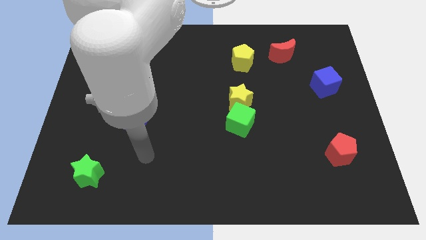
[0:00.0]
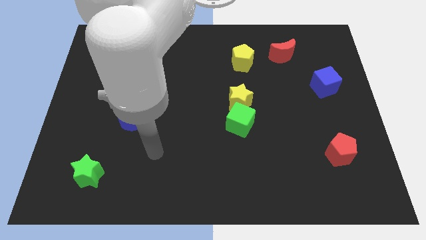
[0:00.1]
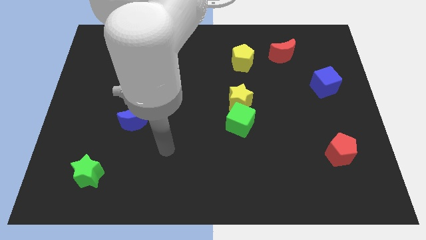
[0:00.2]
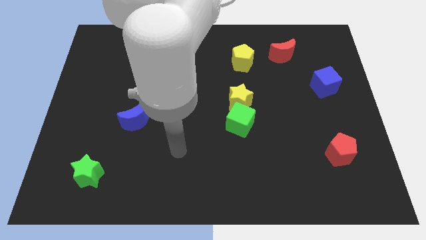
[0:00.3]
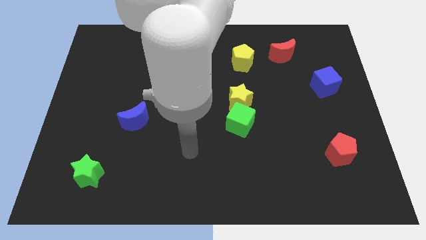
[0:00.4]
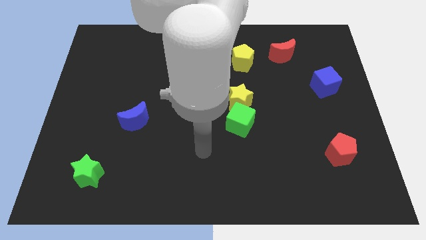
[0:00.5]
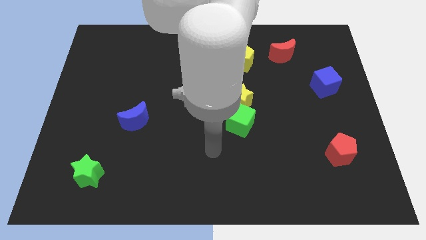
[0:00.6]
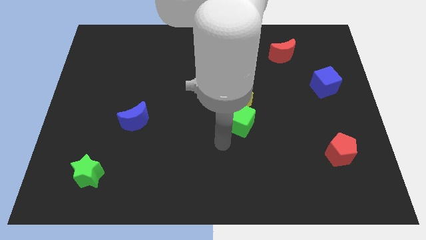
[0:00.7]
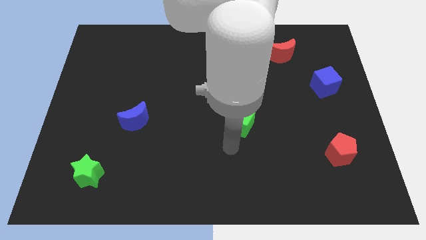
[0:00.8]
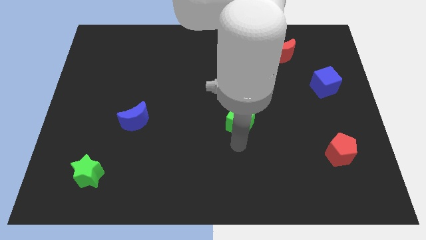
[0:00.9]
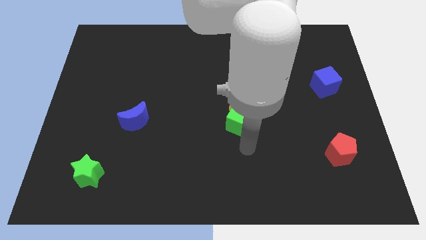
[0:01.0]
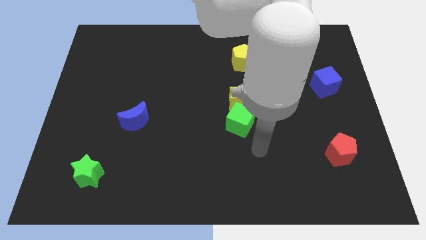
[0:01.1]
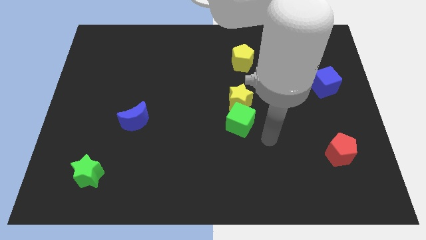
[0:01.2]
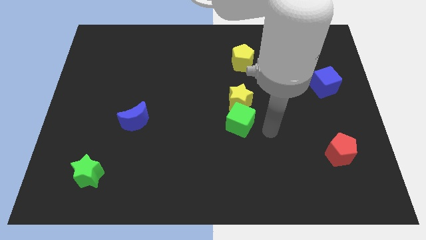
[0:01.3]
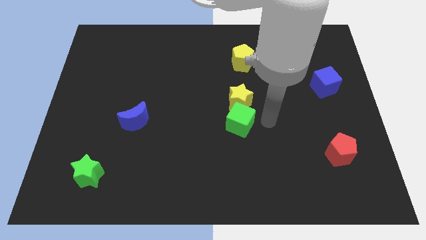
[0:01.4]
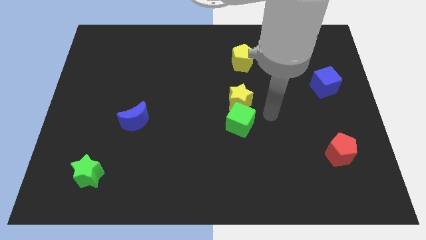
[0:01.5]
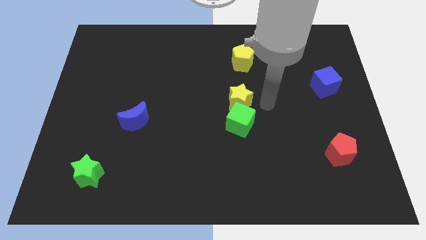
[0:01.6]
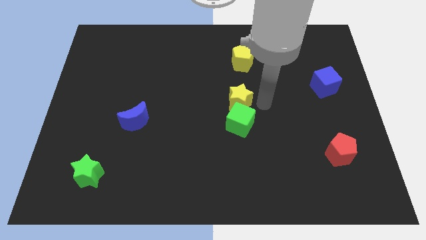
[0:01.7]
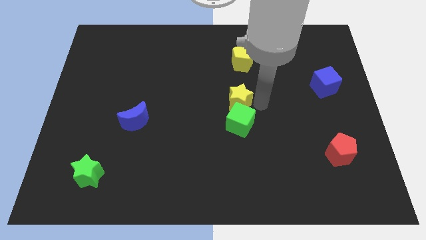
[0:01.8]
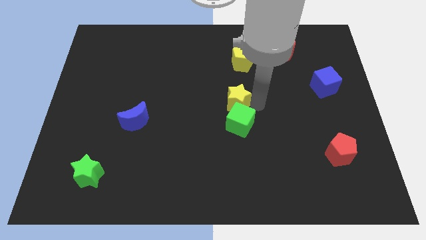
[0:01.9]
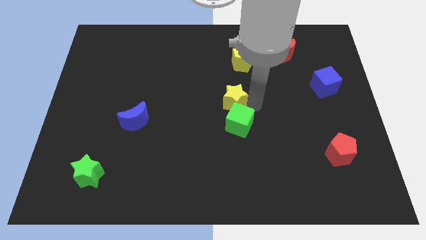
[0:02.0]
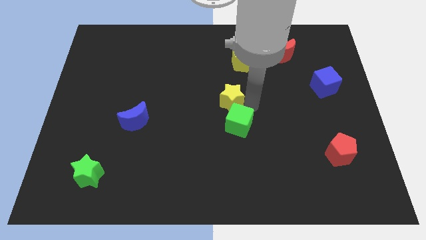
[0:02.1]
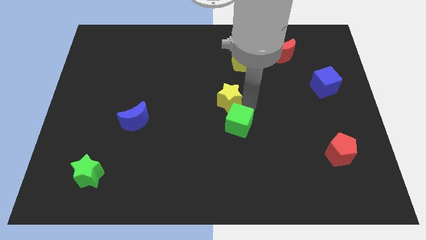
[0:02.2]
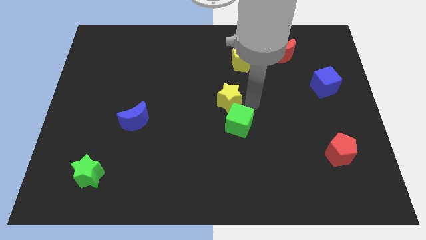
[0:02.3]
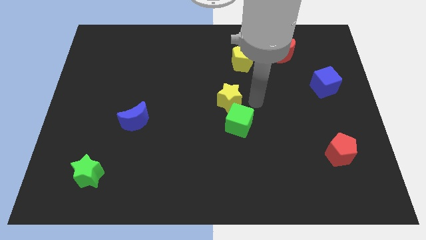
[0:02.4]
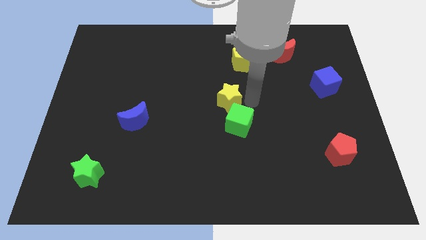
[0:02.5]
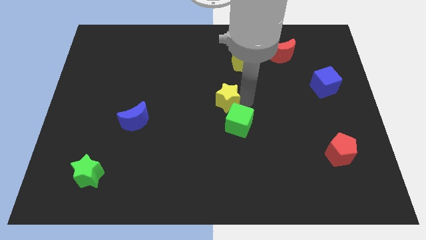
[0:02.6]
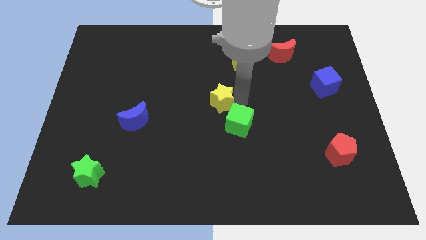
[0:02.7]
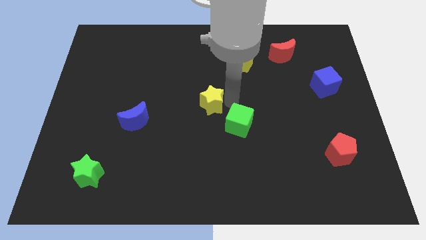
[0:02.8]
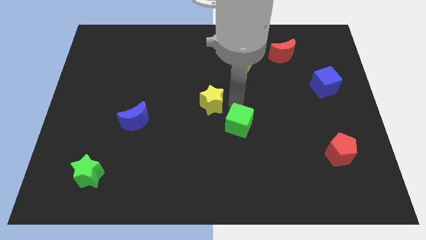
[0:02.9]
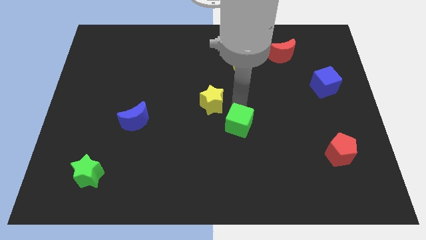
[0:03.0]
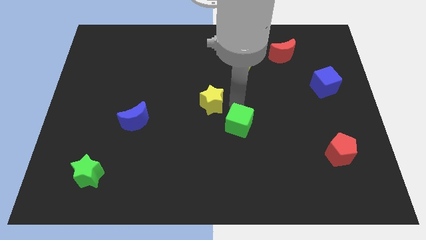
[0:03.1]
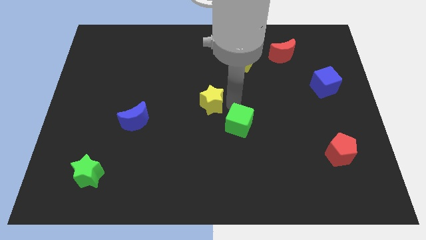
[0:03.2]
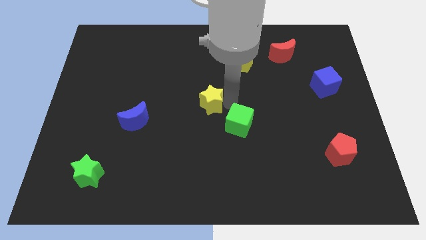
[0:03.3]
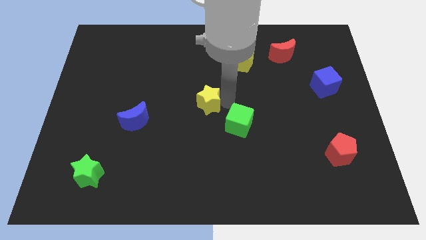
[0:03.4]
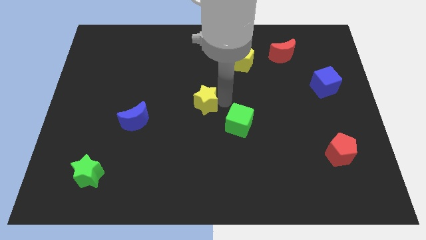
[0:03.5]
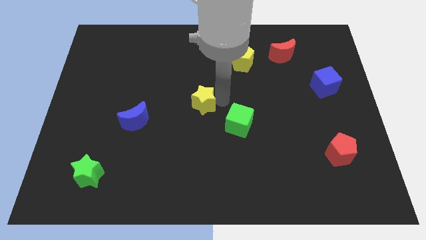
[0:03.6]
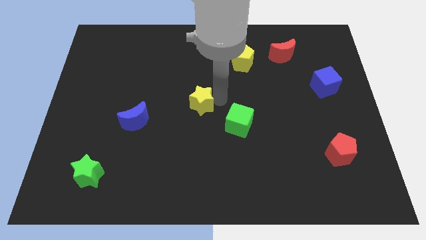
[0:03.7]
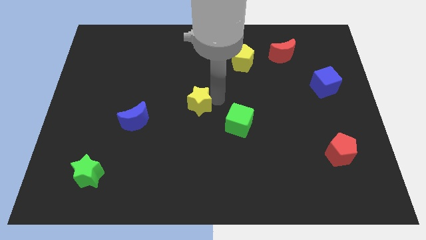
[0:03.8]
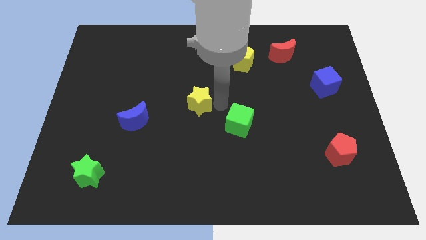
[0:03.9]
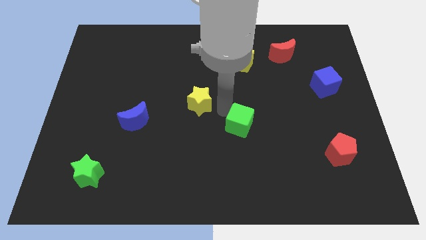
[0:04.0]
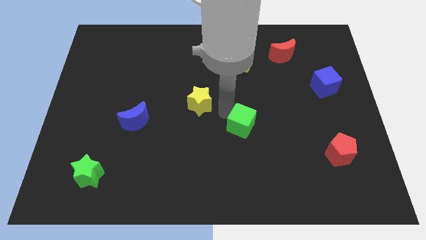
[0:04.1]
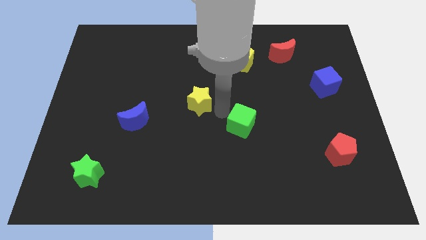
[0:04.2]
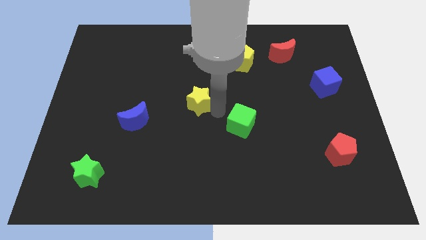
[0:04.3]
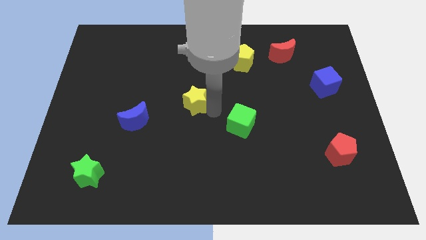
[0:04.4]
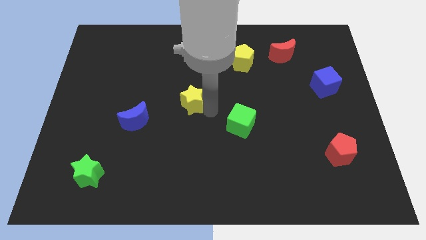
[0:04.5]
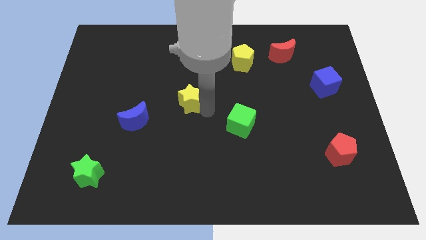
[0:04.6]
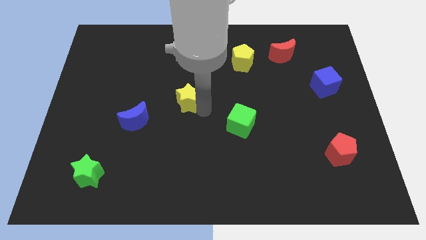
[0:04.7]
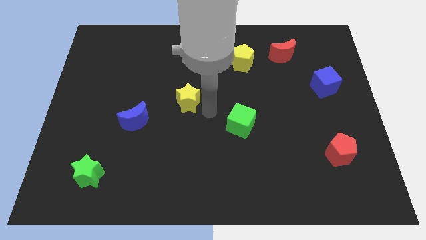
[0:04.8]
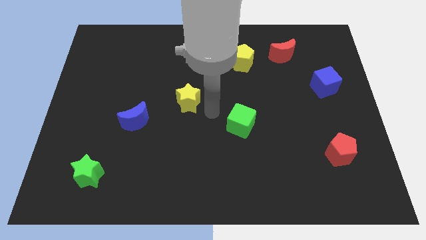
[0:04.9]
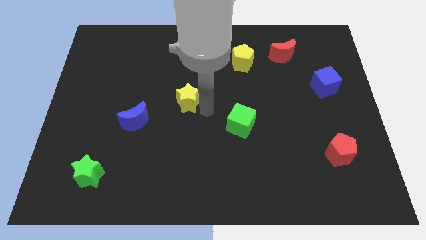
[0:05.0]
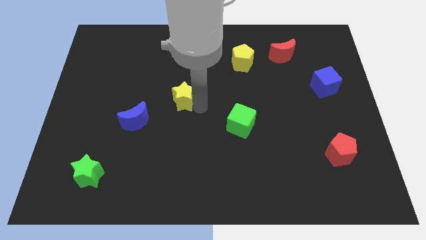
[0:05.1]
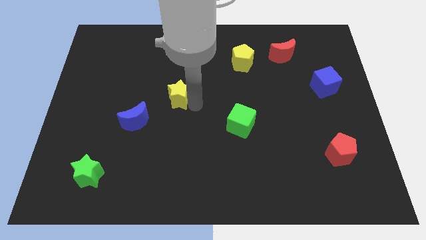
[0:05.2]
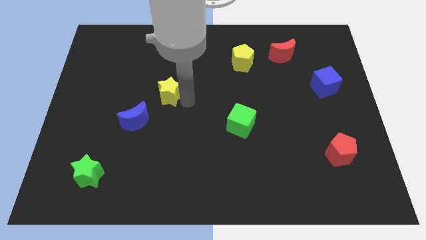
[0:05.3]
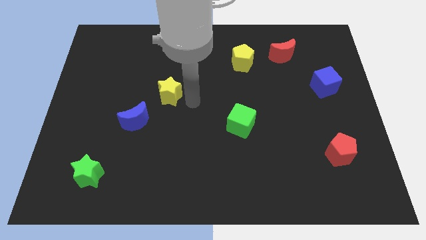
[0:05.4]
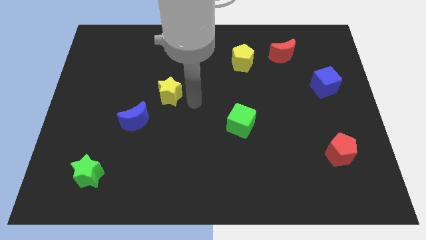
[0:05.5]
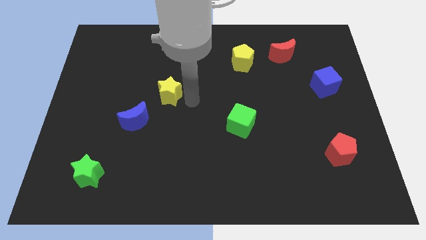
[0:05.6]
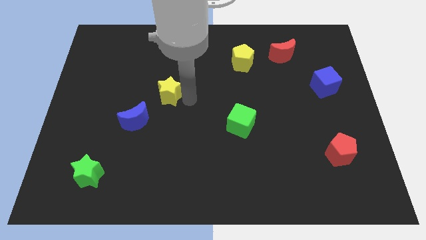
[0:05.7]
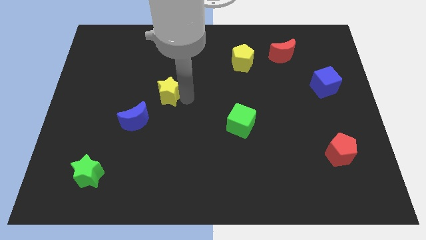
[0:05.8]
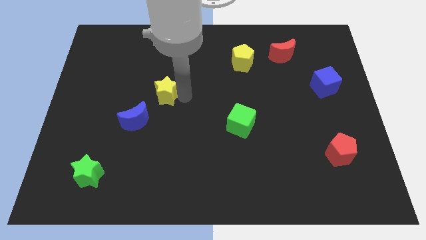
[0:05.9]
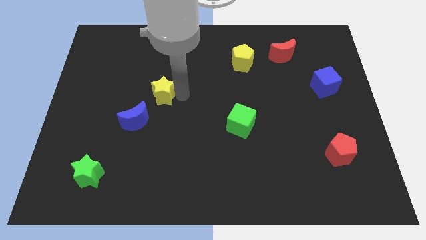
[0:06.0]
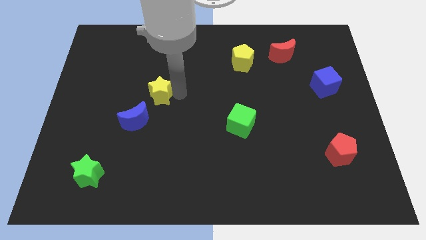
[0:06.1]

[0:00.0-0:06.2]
slide the yellow star to the top of the blue moon

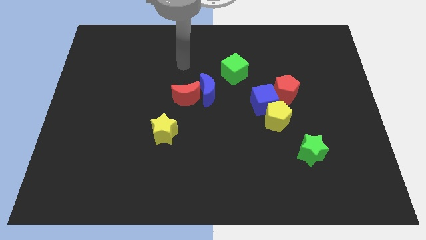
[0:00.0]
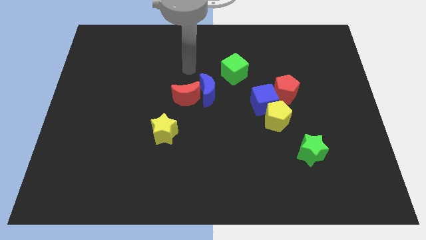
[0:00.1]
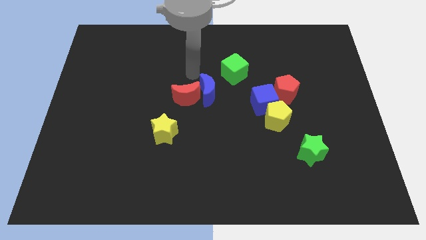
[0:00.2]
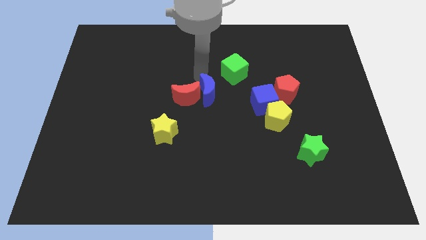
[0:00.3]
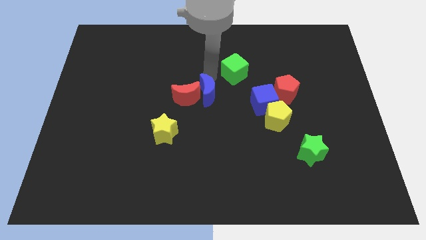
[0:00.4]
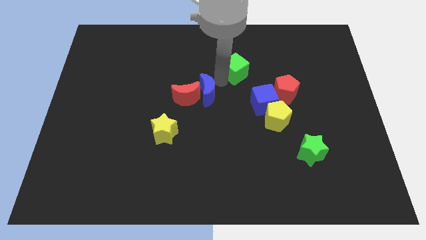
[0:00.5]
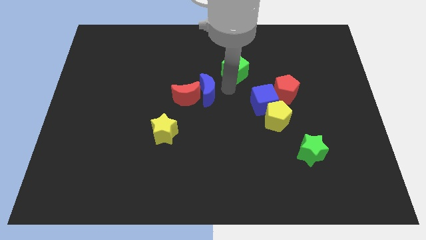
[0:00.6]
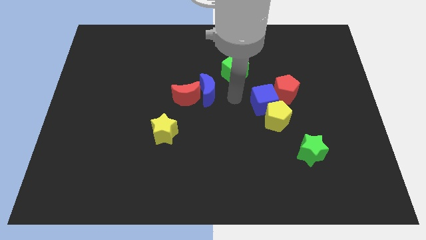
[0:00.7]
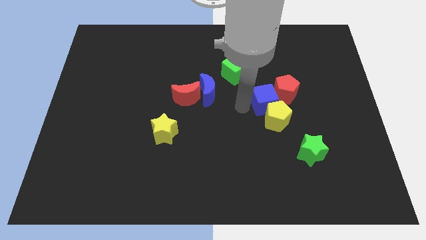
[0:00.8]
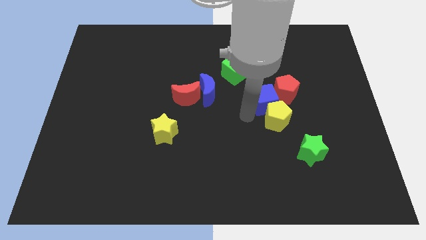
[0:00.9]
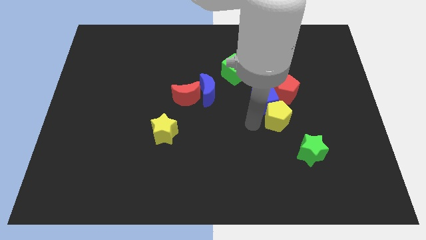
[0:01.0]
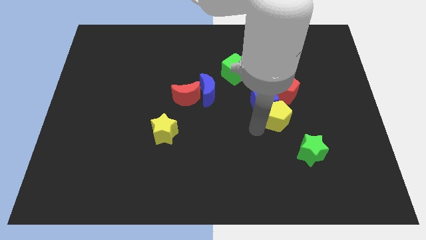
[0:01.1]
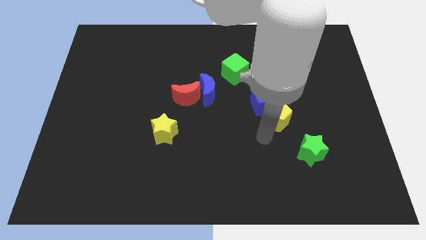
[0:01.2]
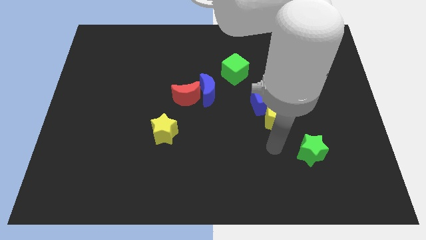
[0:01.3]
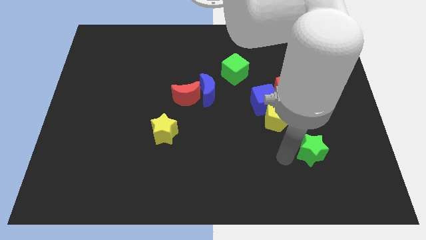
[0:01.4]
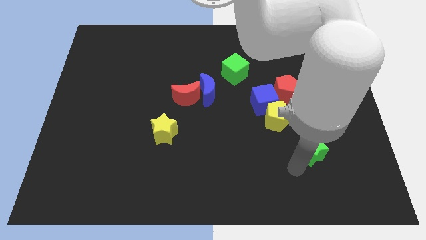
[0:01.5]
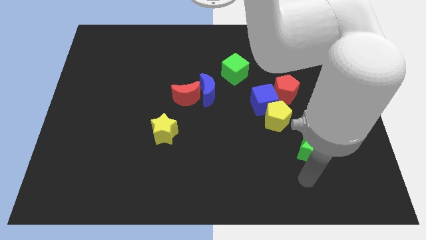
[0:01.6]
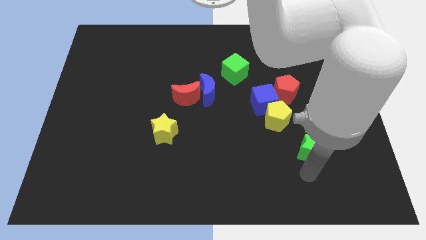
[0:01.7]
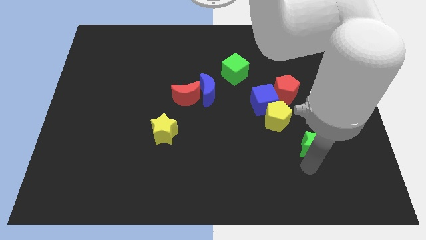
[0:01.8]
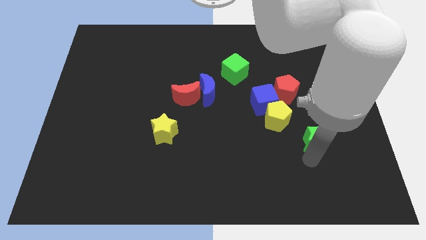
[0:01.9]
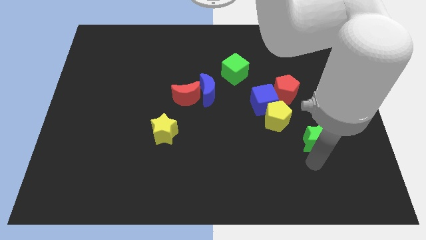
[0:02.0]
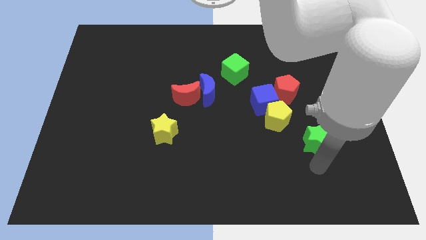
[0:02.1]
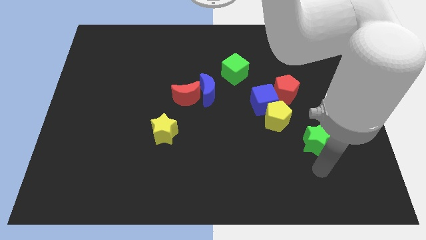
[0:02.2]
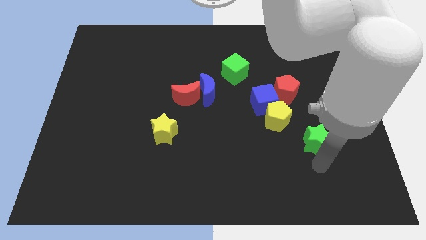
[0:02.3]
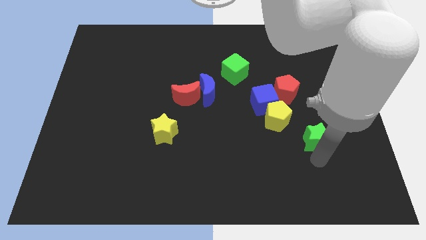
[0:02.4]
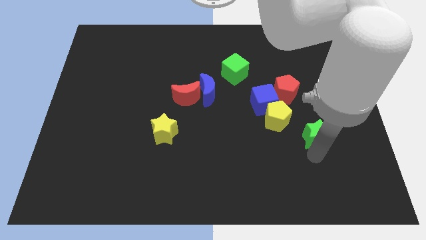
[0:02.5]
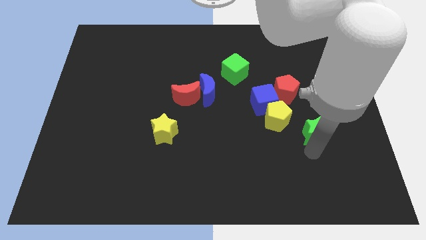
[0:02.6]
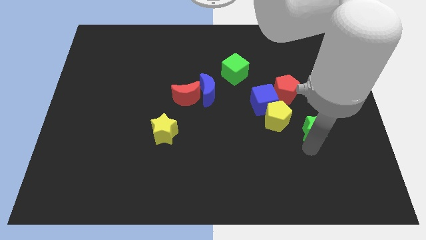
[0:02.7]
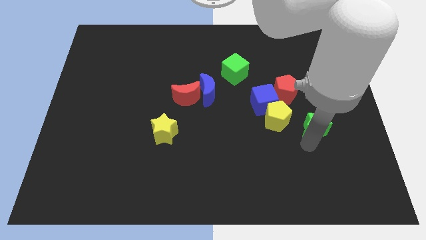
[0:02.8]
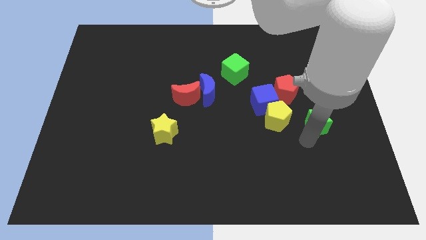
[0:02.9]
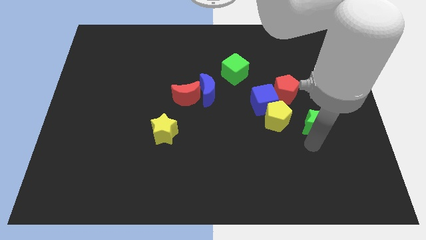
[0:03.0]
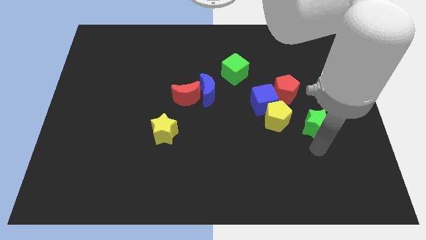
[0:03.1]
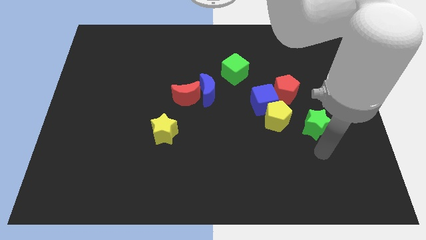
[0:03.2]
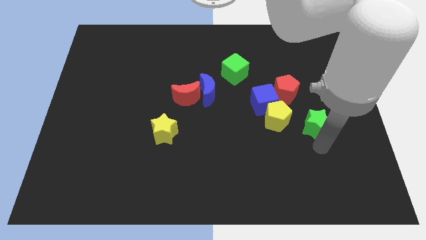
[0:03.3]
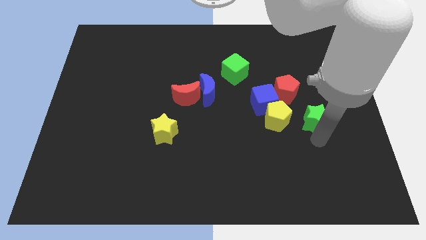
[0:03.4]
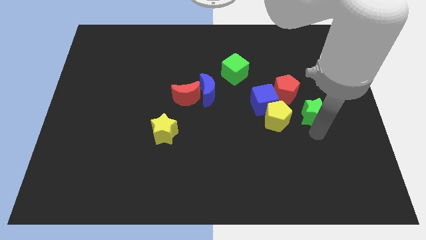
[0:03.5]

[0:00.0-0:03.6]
move the green star just right of the blue cube
